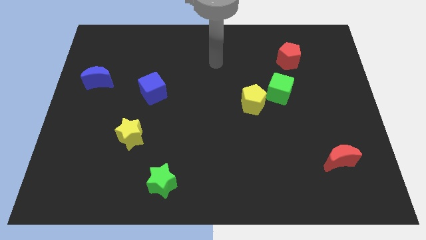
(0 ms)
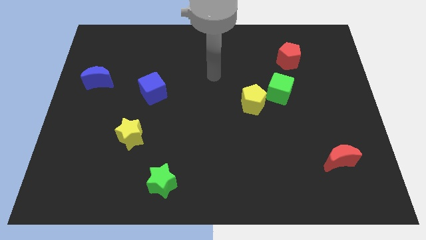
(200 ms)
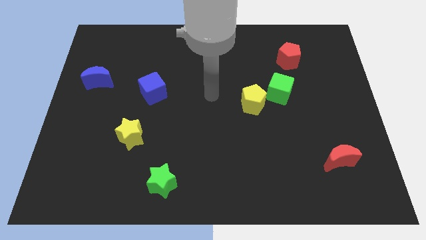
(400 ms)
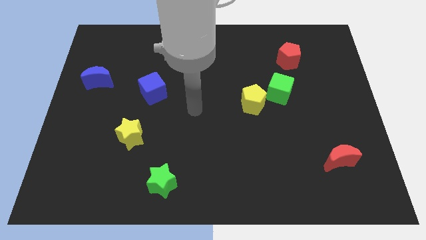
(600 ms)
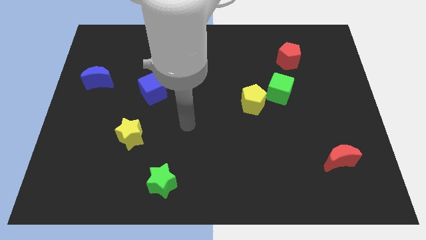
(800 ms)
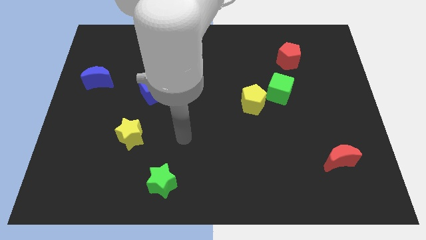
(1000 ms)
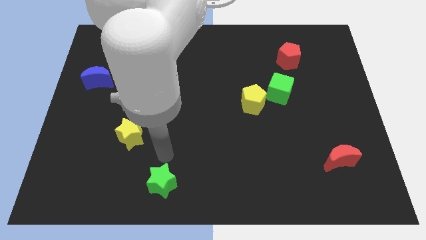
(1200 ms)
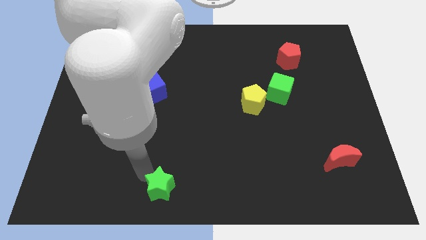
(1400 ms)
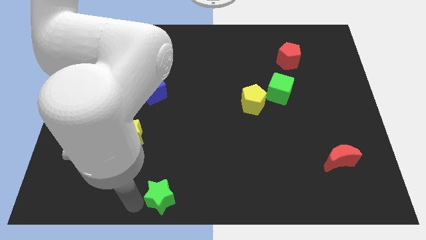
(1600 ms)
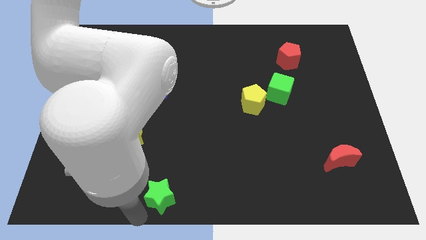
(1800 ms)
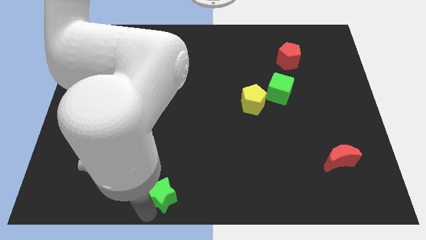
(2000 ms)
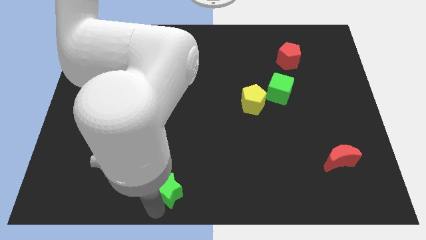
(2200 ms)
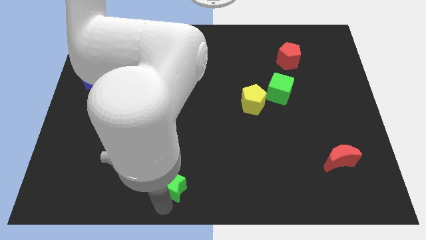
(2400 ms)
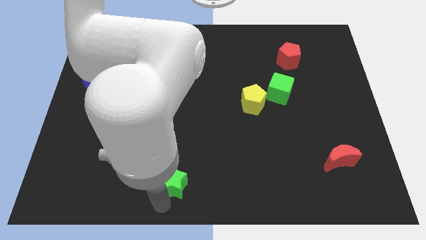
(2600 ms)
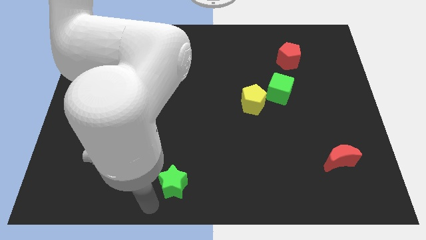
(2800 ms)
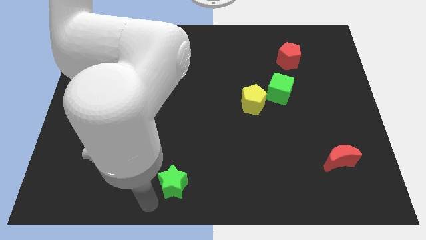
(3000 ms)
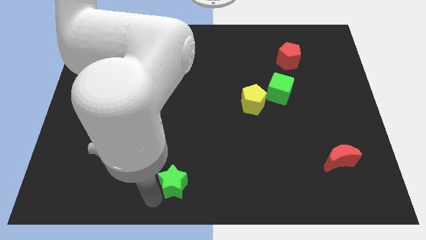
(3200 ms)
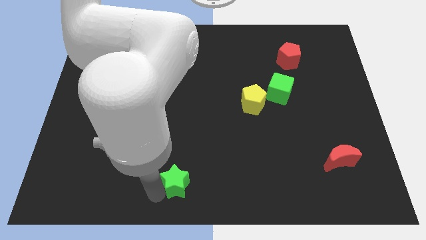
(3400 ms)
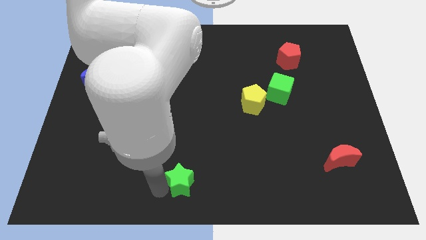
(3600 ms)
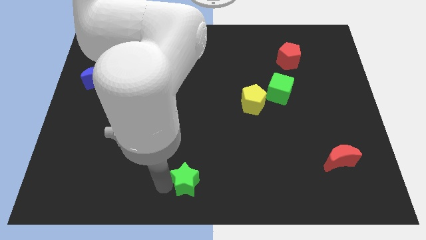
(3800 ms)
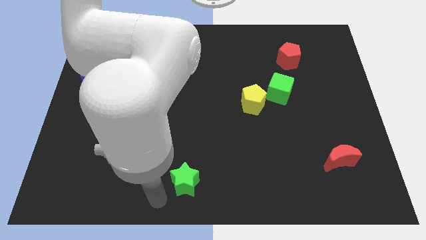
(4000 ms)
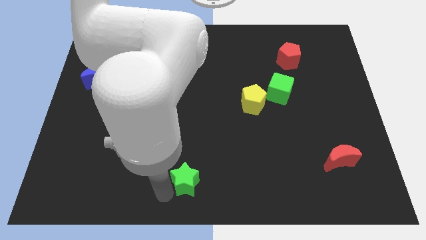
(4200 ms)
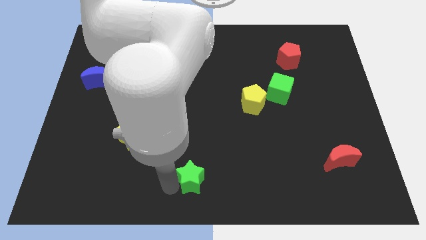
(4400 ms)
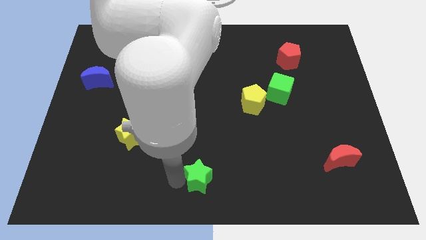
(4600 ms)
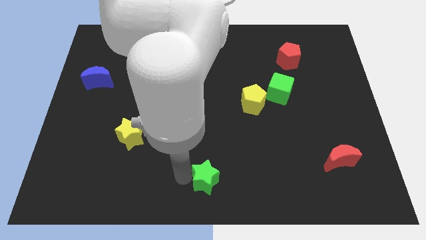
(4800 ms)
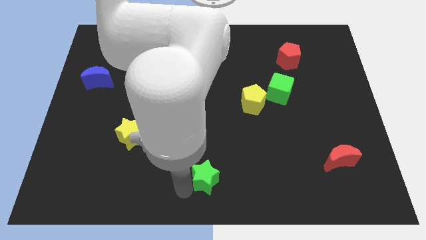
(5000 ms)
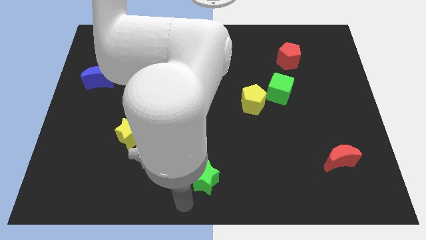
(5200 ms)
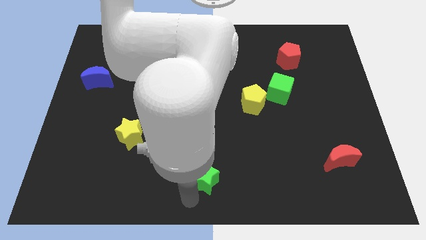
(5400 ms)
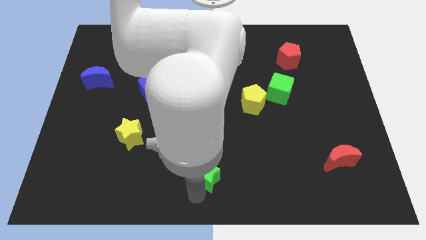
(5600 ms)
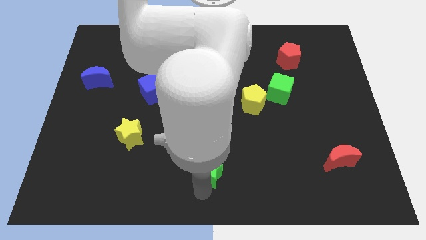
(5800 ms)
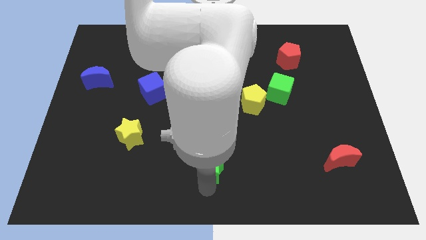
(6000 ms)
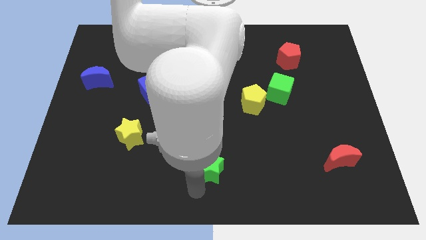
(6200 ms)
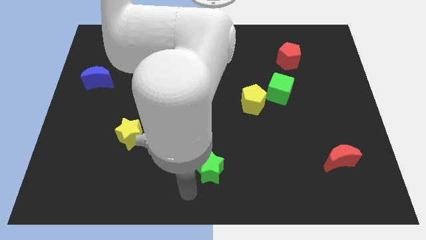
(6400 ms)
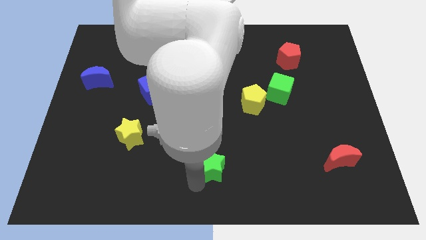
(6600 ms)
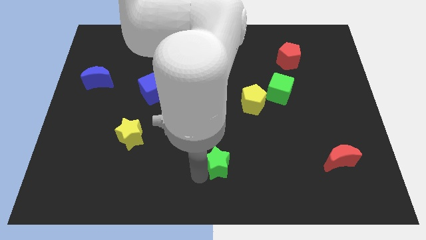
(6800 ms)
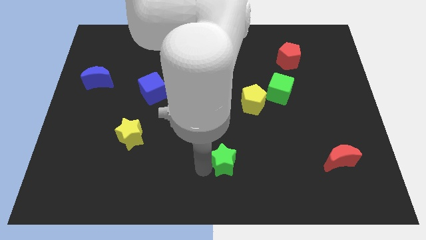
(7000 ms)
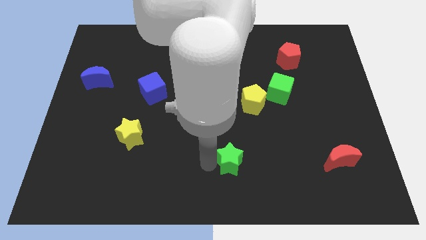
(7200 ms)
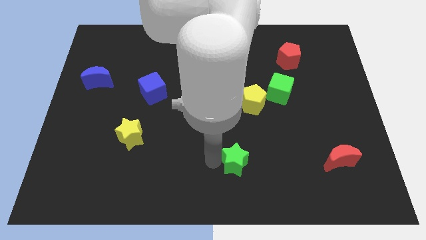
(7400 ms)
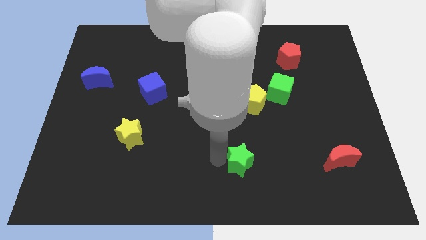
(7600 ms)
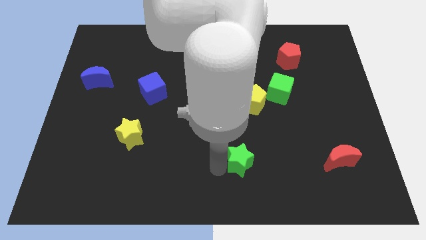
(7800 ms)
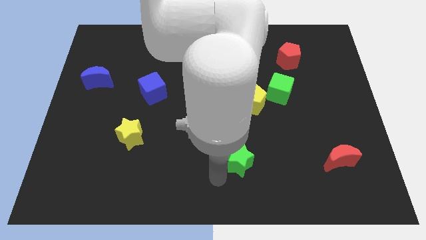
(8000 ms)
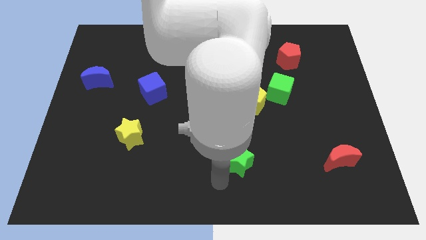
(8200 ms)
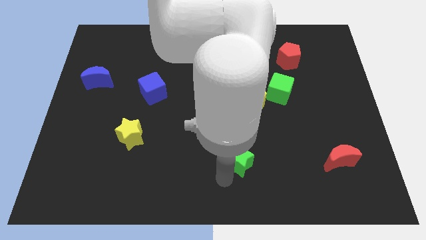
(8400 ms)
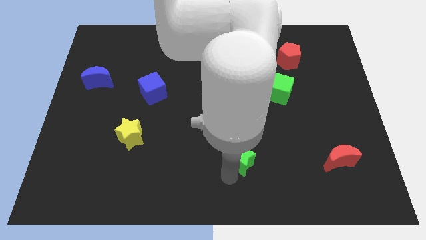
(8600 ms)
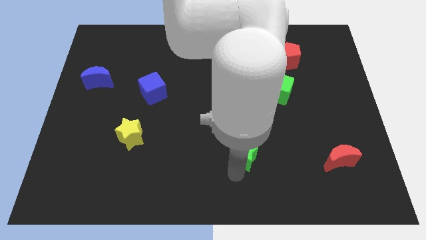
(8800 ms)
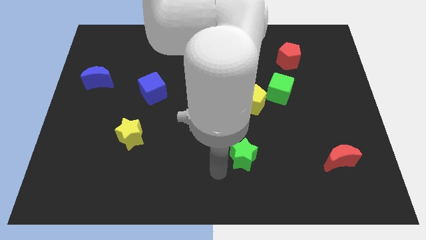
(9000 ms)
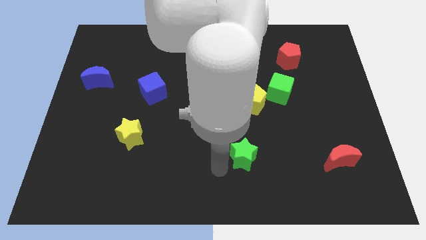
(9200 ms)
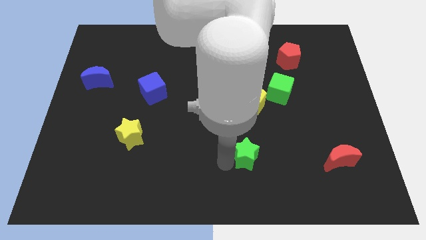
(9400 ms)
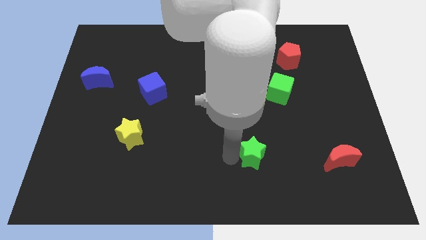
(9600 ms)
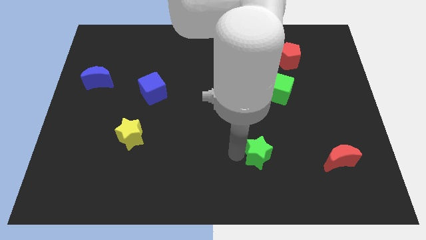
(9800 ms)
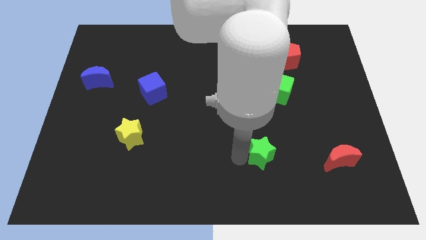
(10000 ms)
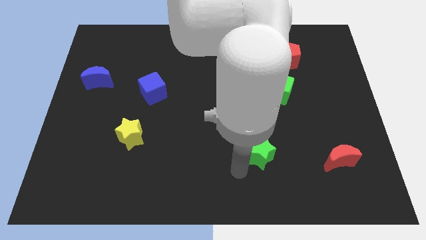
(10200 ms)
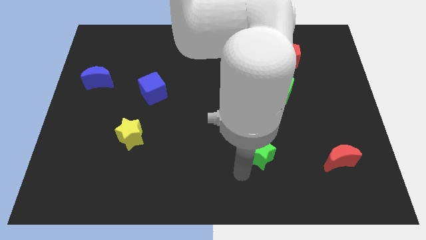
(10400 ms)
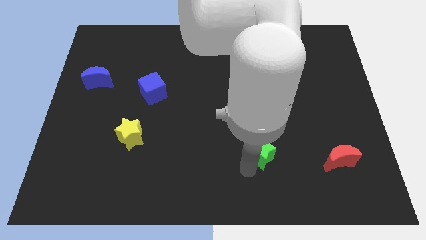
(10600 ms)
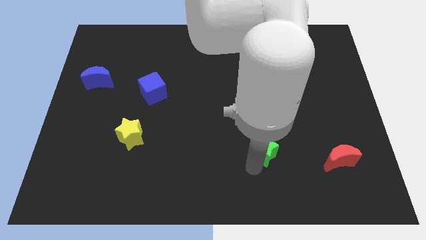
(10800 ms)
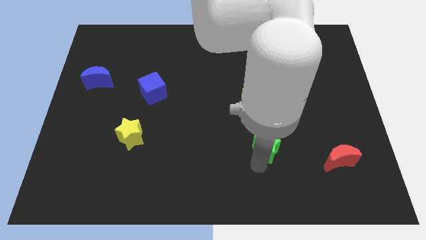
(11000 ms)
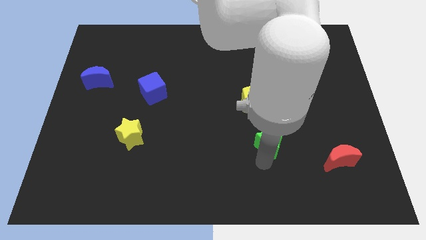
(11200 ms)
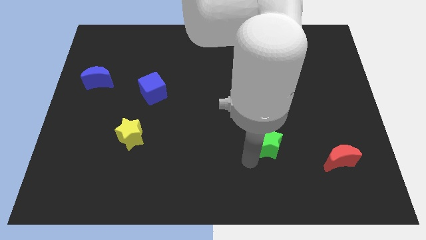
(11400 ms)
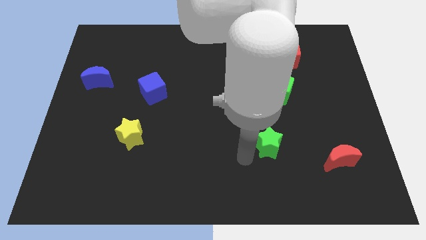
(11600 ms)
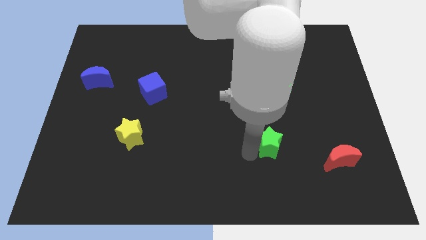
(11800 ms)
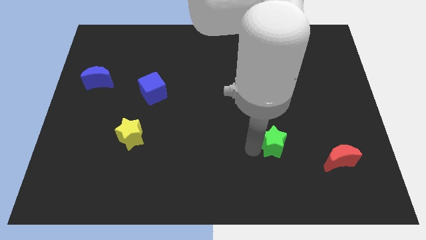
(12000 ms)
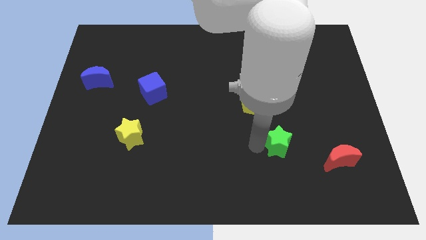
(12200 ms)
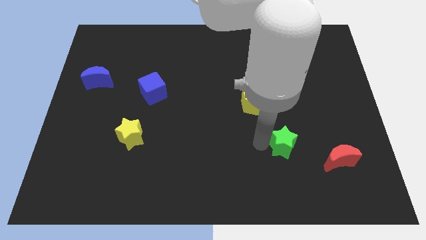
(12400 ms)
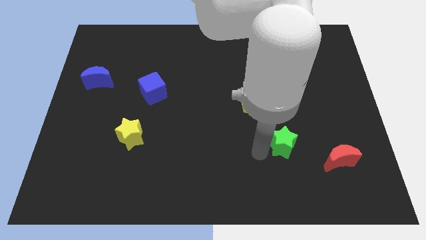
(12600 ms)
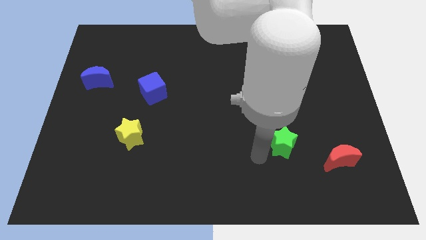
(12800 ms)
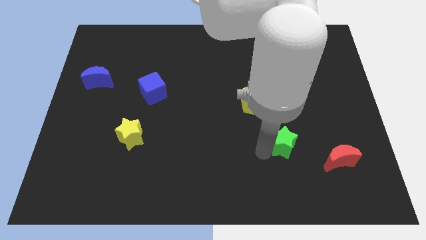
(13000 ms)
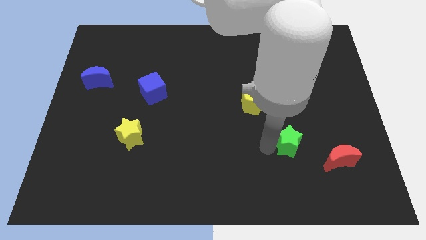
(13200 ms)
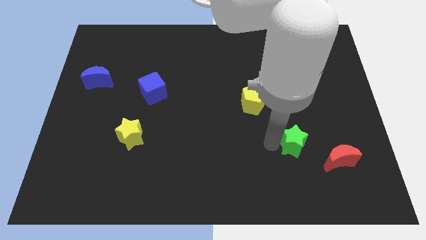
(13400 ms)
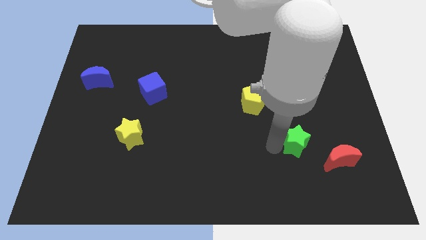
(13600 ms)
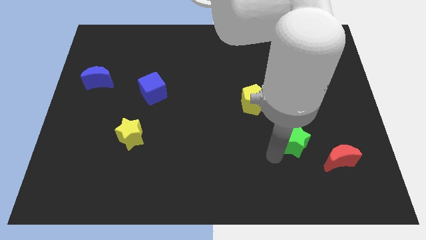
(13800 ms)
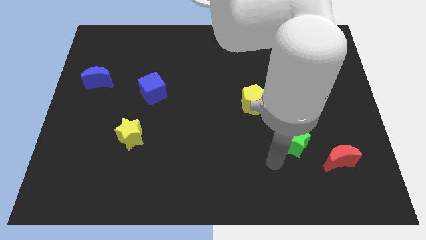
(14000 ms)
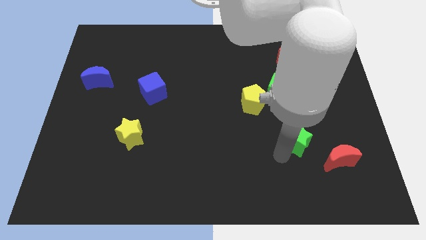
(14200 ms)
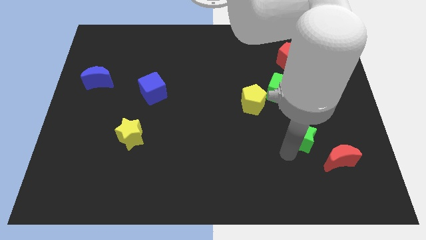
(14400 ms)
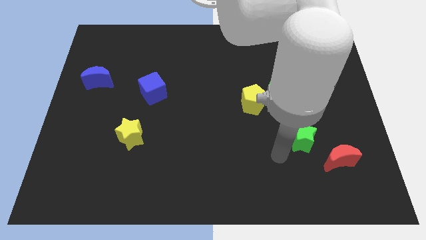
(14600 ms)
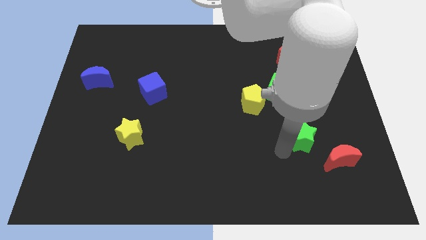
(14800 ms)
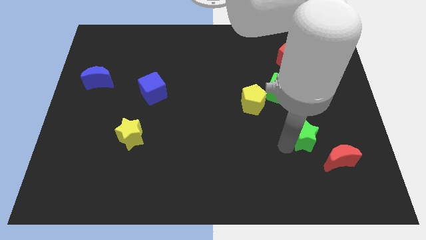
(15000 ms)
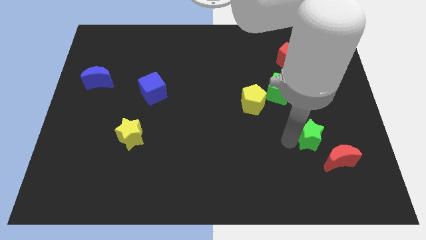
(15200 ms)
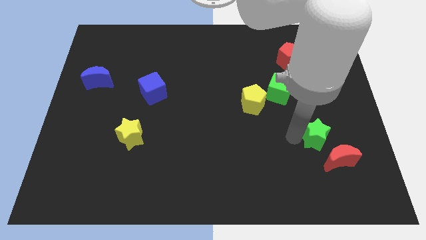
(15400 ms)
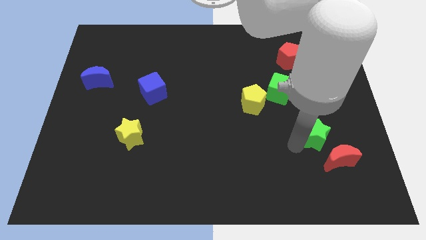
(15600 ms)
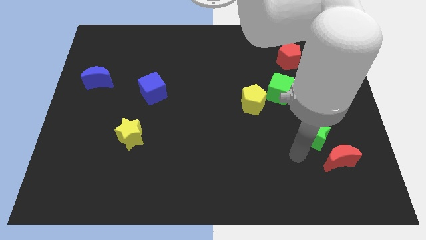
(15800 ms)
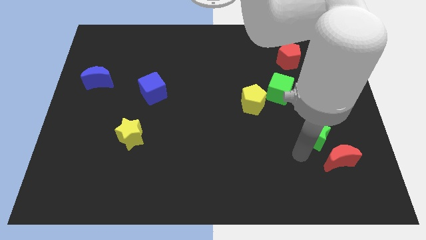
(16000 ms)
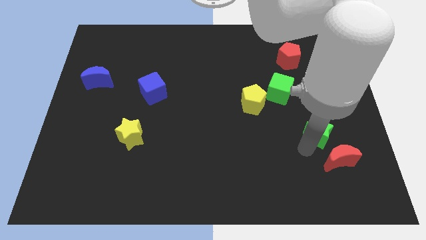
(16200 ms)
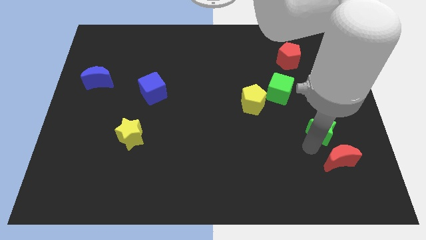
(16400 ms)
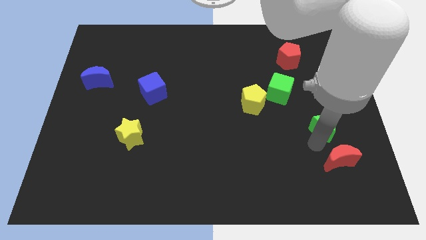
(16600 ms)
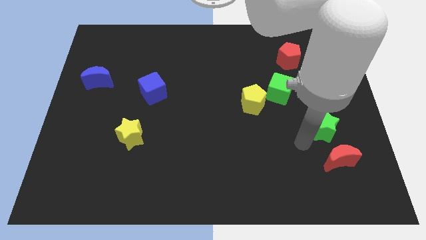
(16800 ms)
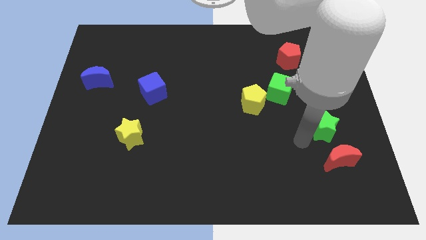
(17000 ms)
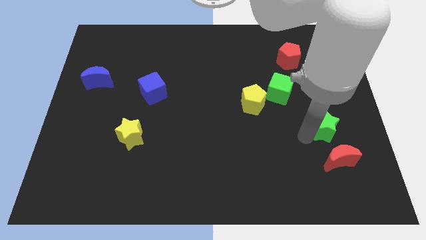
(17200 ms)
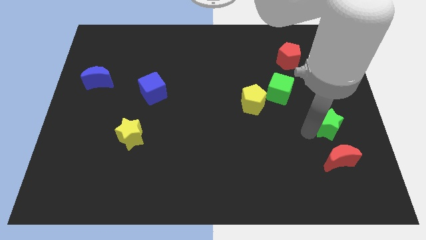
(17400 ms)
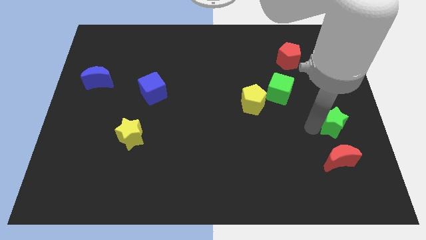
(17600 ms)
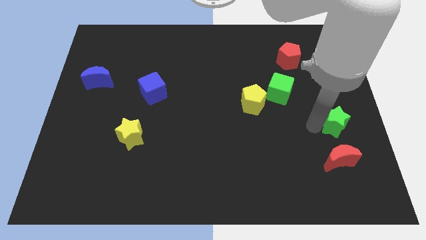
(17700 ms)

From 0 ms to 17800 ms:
slide the green star to the center right
